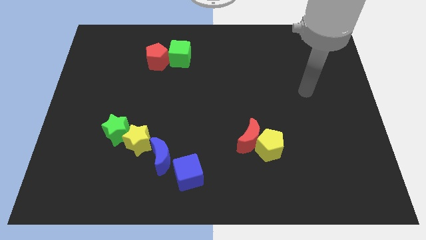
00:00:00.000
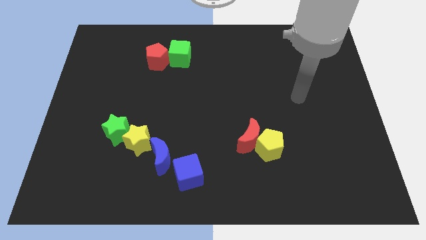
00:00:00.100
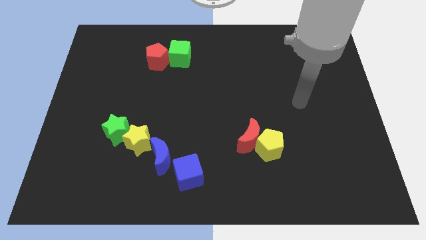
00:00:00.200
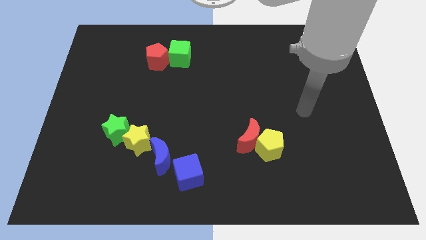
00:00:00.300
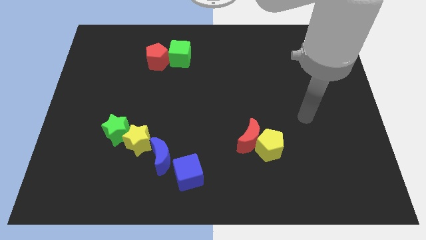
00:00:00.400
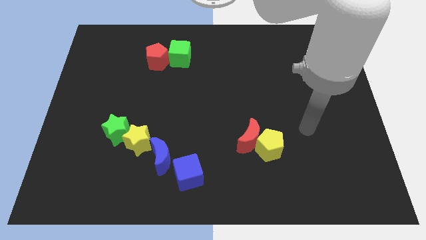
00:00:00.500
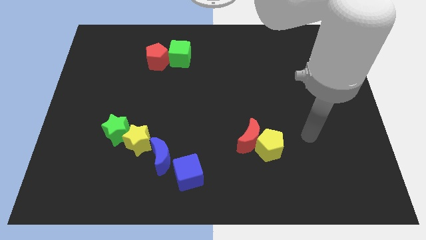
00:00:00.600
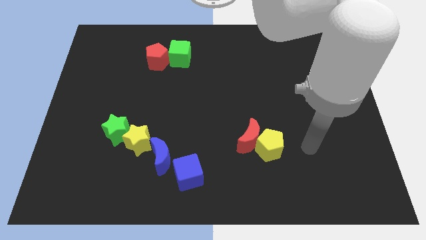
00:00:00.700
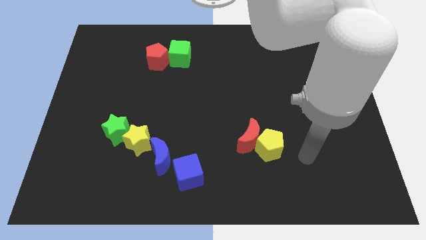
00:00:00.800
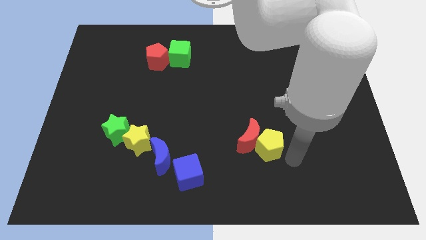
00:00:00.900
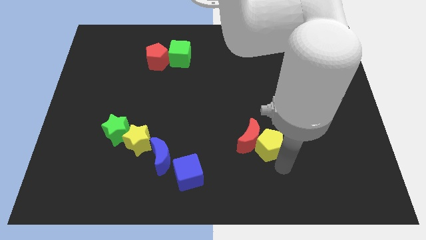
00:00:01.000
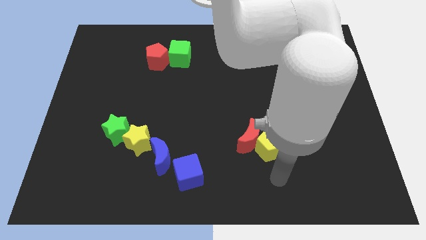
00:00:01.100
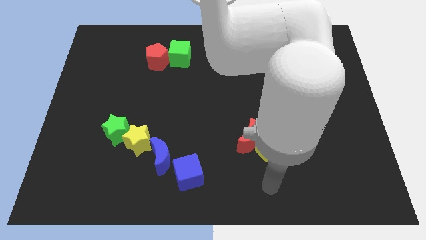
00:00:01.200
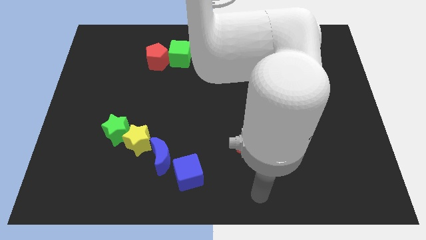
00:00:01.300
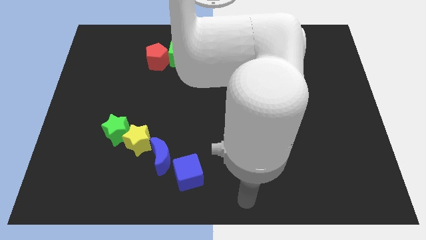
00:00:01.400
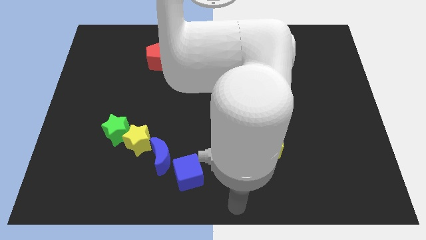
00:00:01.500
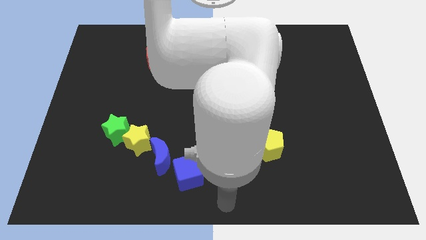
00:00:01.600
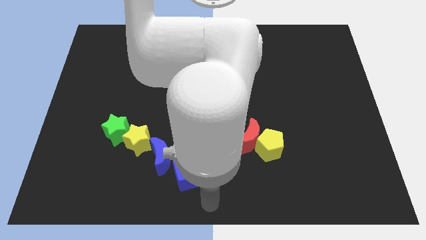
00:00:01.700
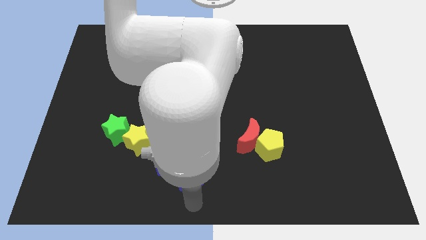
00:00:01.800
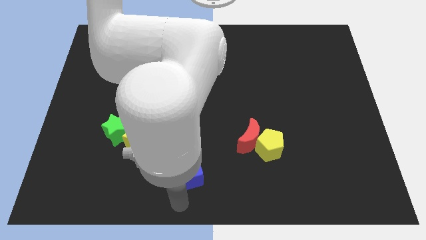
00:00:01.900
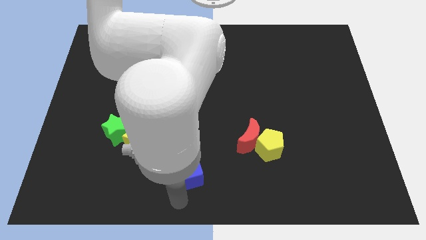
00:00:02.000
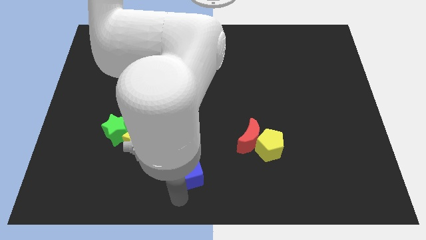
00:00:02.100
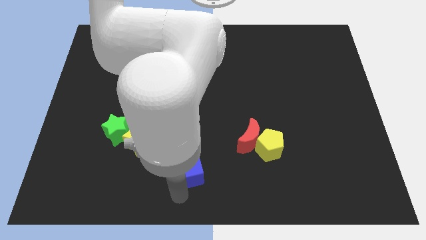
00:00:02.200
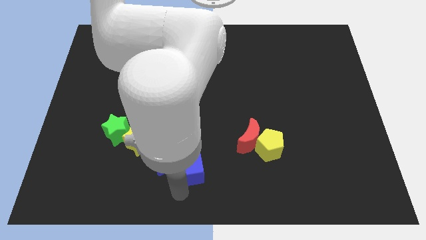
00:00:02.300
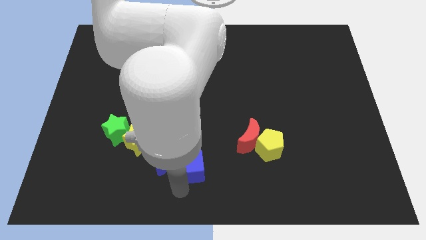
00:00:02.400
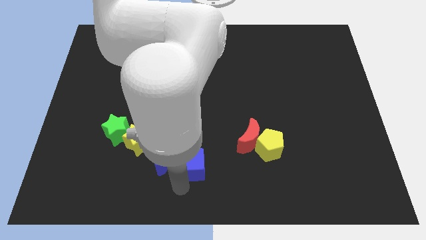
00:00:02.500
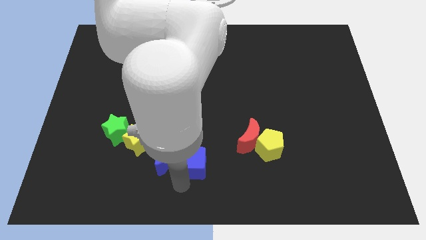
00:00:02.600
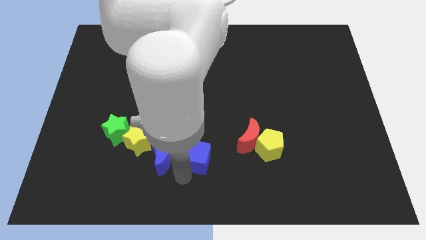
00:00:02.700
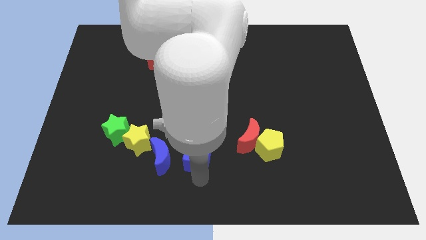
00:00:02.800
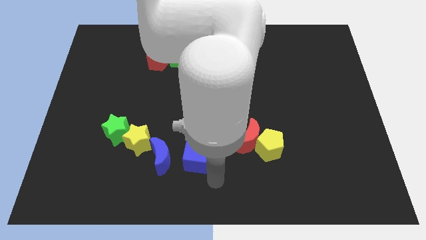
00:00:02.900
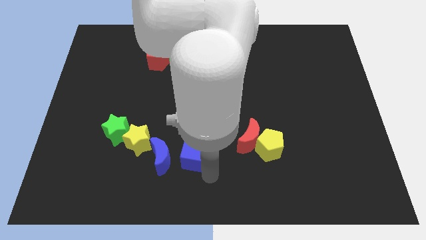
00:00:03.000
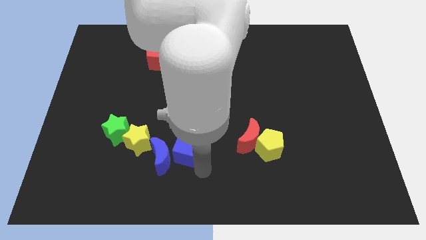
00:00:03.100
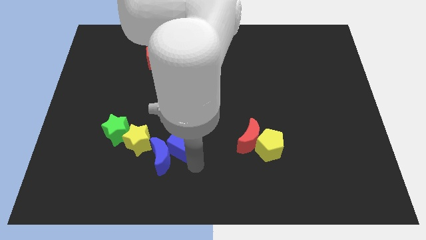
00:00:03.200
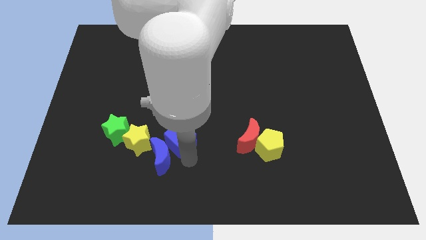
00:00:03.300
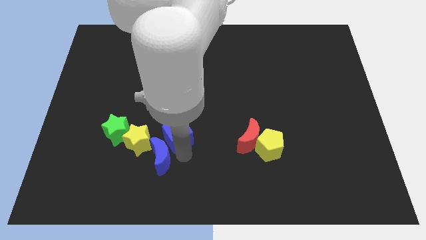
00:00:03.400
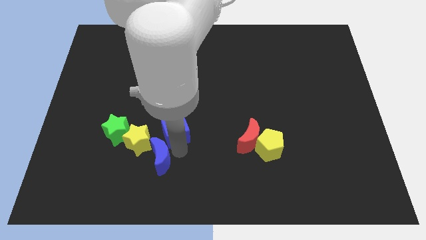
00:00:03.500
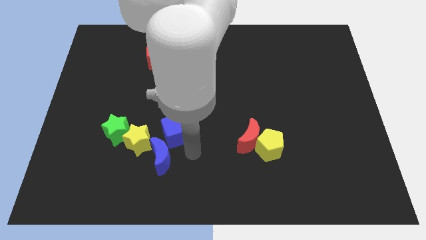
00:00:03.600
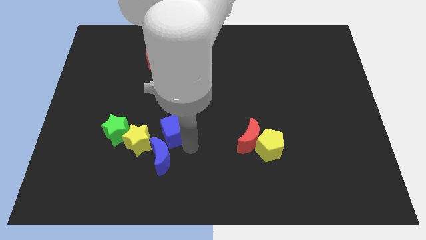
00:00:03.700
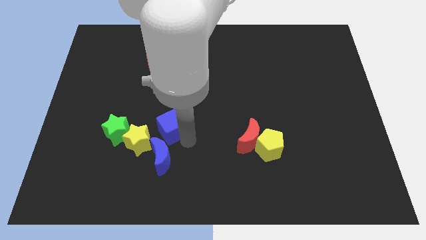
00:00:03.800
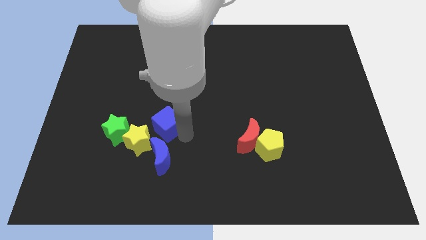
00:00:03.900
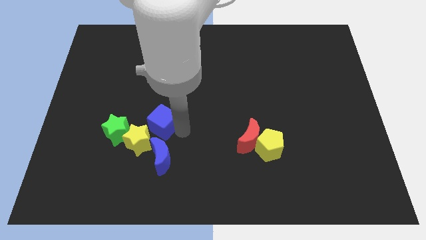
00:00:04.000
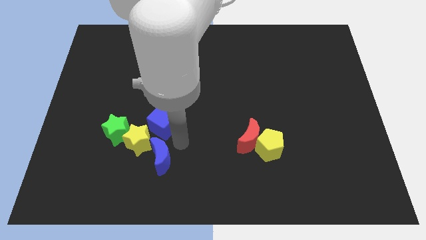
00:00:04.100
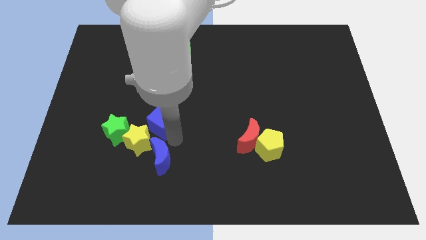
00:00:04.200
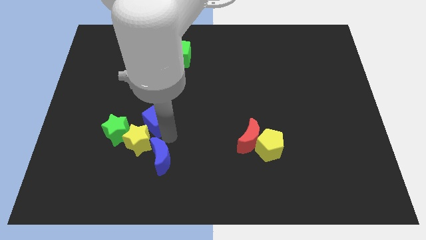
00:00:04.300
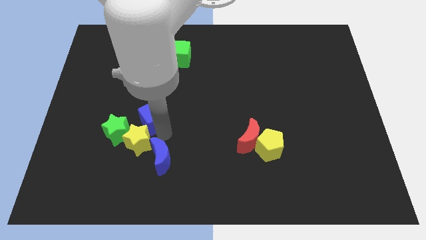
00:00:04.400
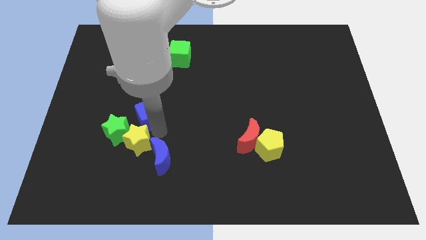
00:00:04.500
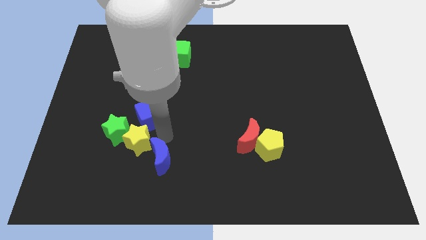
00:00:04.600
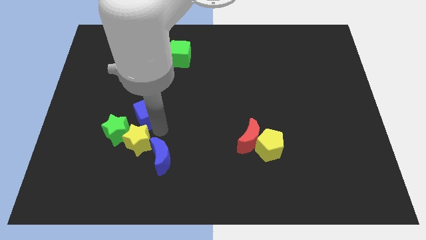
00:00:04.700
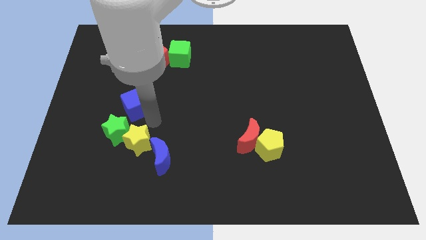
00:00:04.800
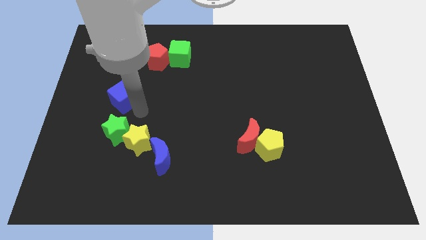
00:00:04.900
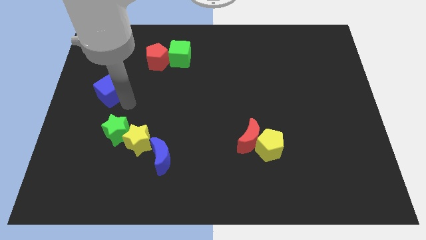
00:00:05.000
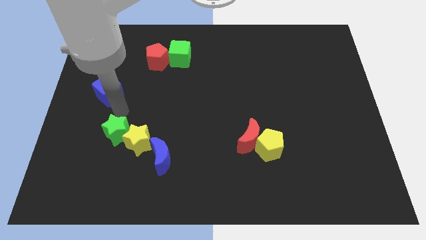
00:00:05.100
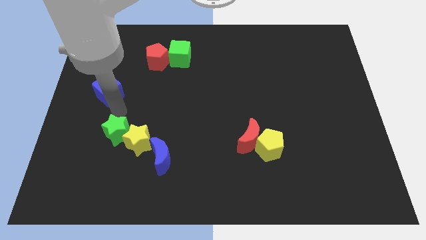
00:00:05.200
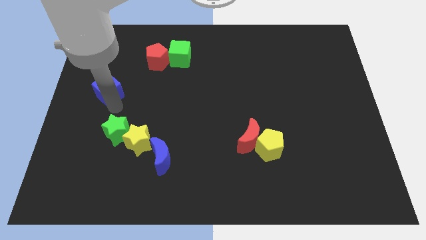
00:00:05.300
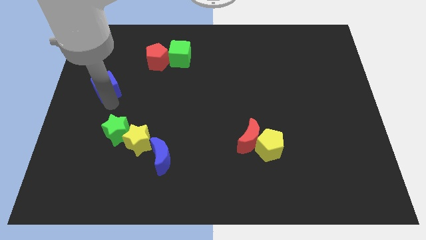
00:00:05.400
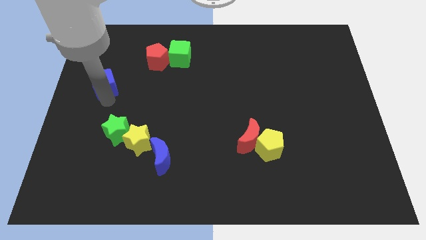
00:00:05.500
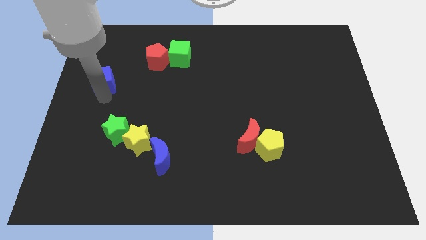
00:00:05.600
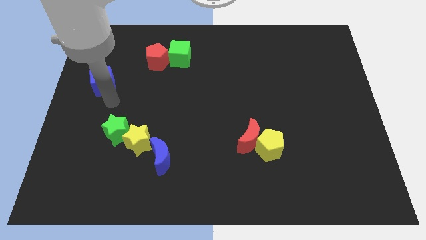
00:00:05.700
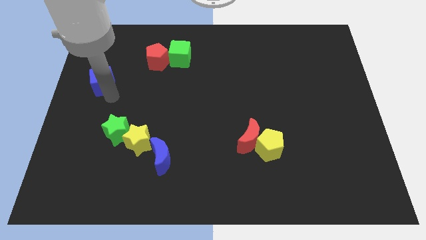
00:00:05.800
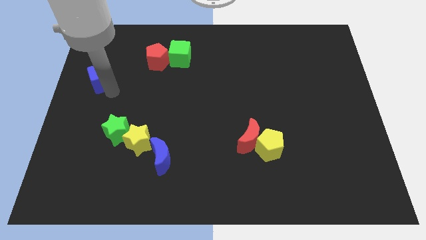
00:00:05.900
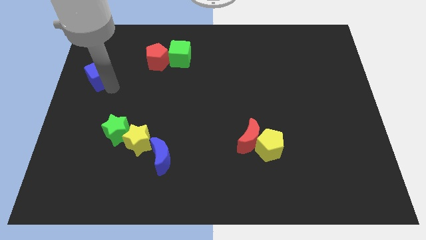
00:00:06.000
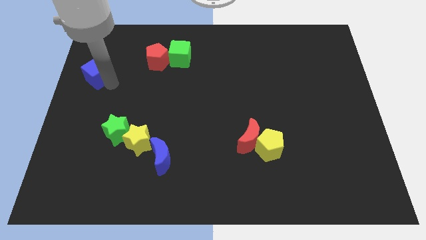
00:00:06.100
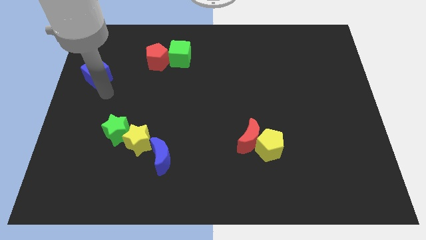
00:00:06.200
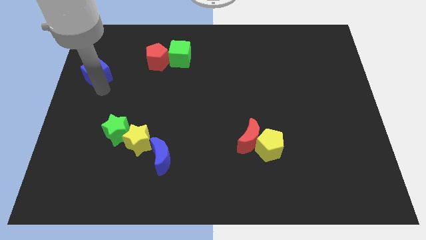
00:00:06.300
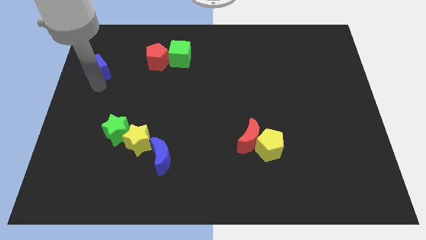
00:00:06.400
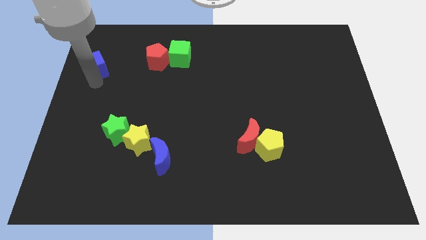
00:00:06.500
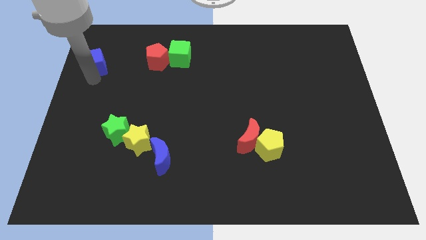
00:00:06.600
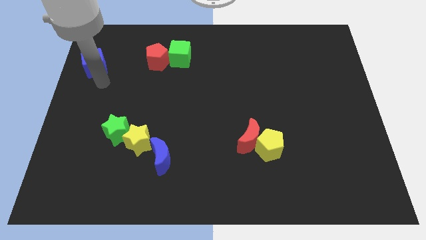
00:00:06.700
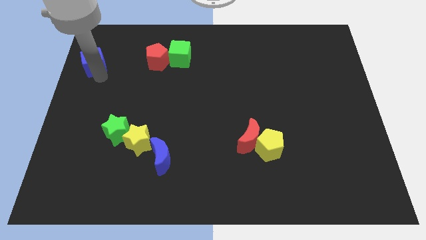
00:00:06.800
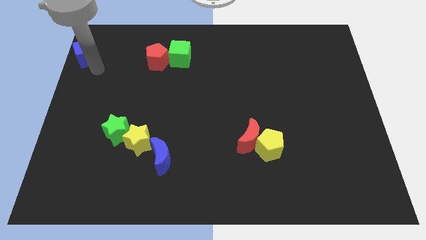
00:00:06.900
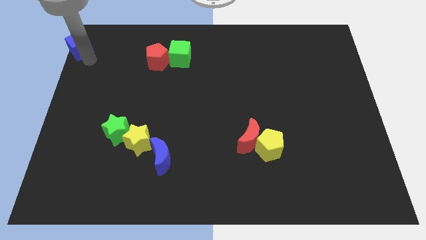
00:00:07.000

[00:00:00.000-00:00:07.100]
slide the blue cube to the upper left corner
